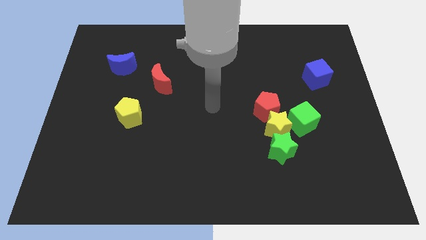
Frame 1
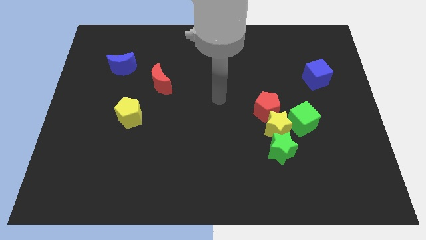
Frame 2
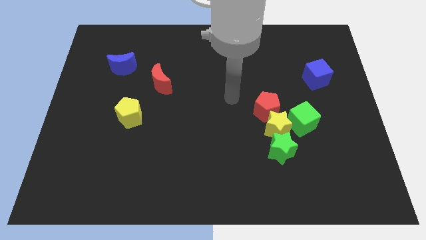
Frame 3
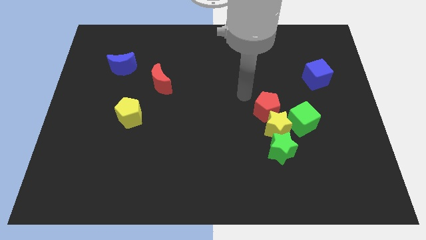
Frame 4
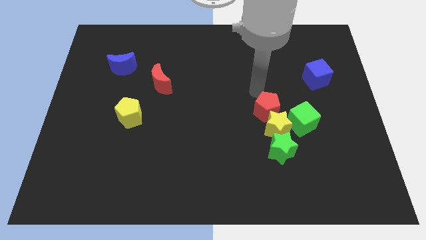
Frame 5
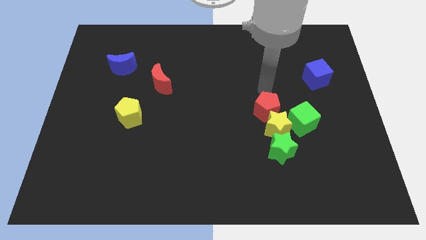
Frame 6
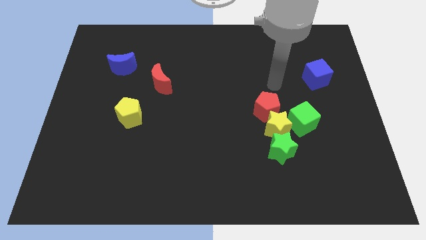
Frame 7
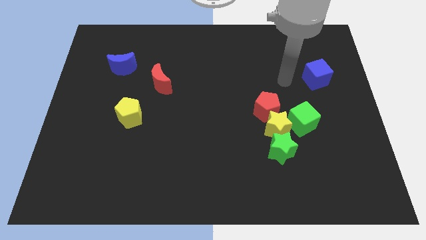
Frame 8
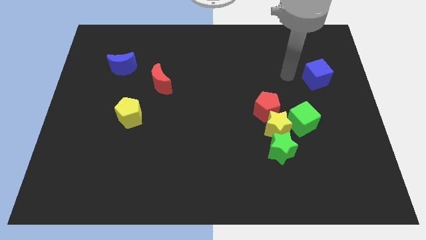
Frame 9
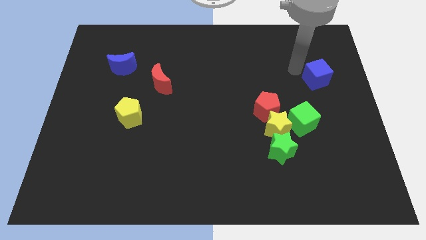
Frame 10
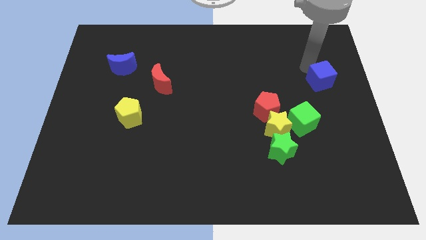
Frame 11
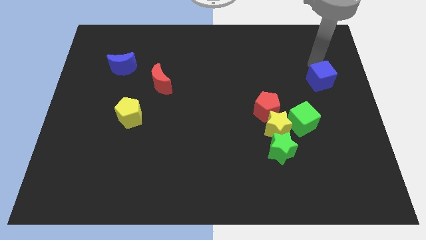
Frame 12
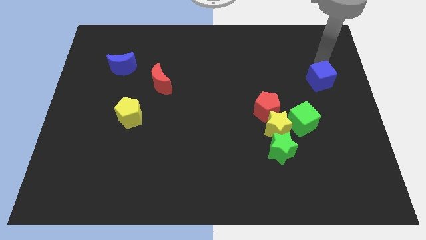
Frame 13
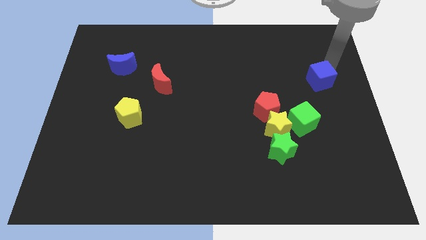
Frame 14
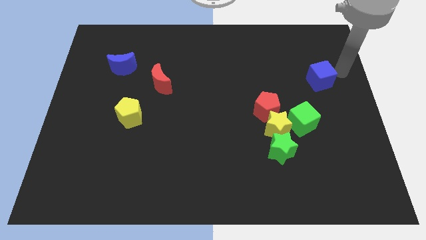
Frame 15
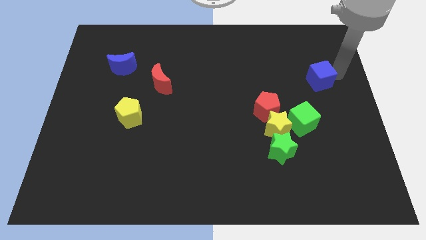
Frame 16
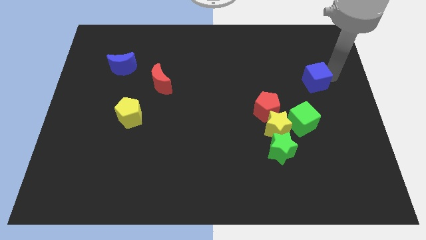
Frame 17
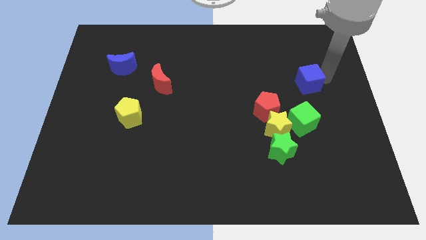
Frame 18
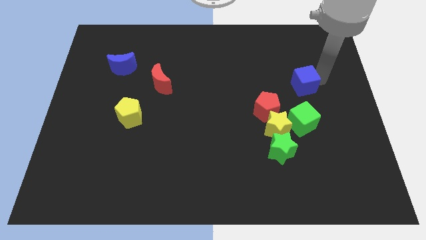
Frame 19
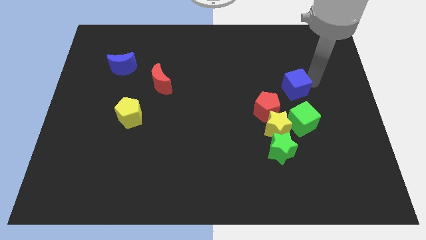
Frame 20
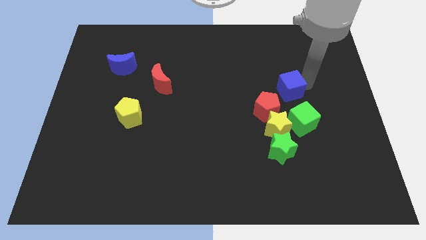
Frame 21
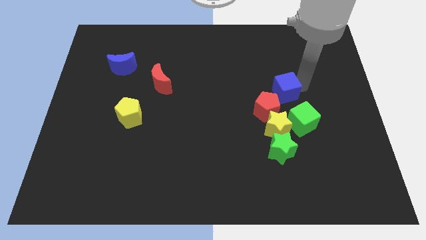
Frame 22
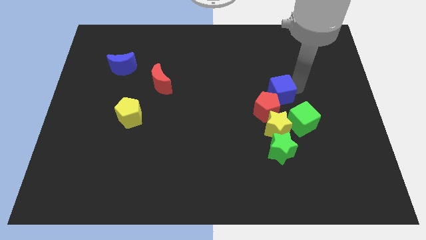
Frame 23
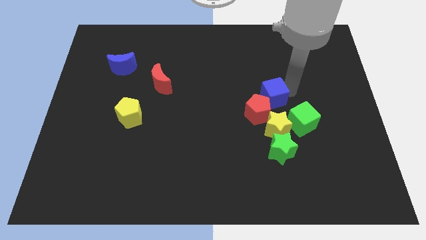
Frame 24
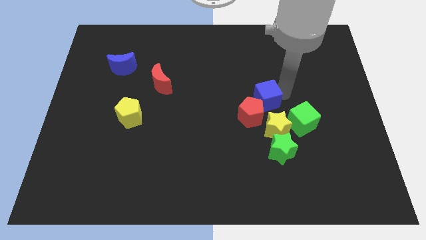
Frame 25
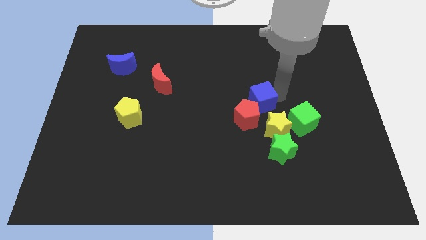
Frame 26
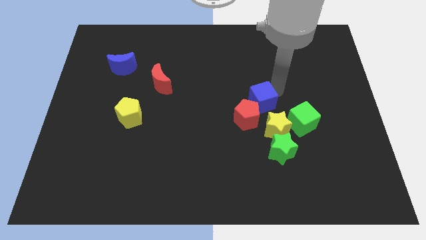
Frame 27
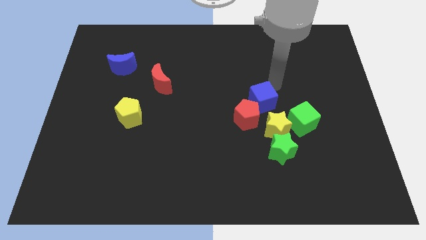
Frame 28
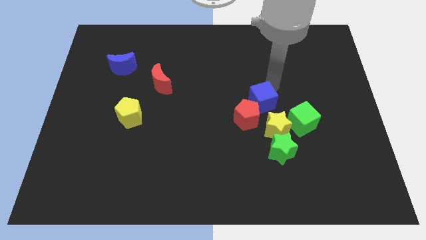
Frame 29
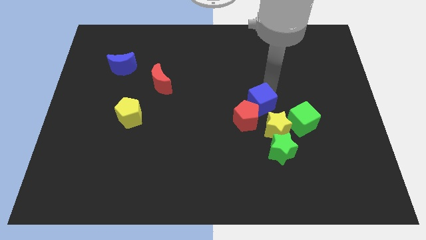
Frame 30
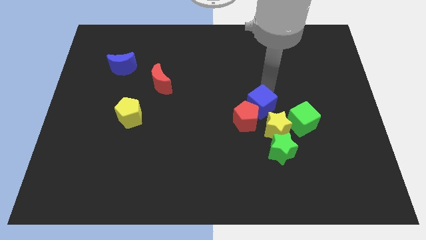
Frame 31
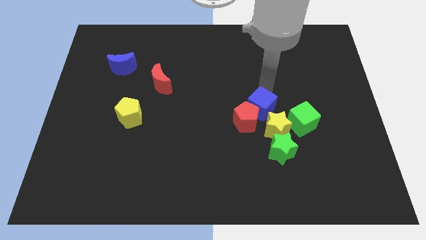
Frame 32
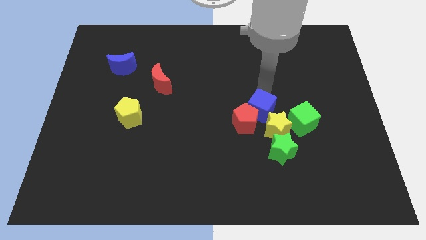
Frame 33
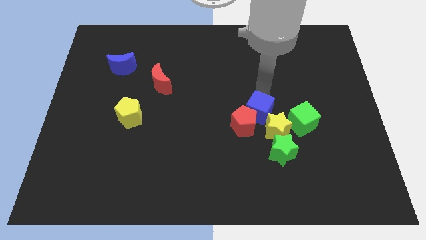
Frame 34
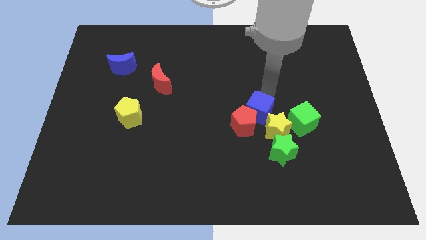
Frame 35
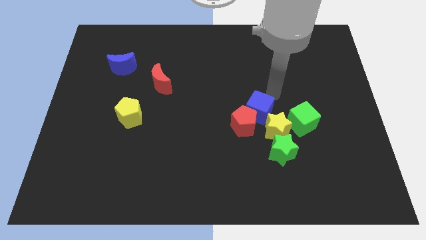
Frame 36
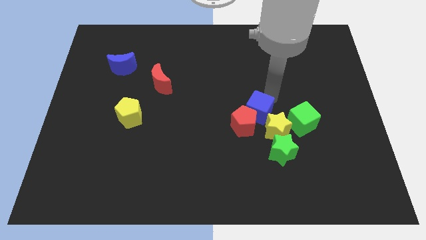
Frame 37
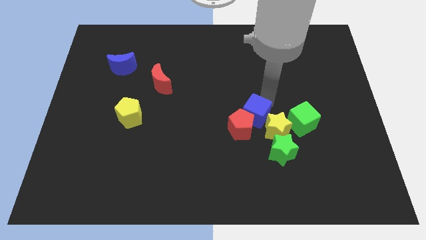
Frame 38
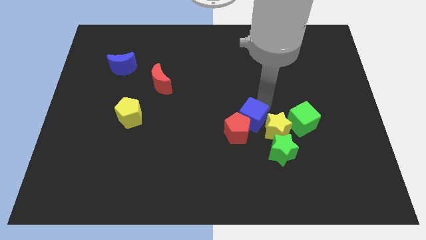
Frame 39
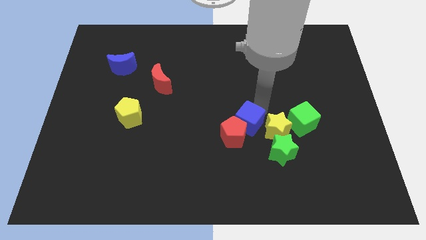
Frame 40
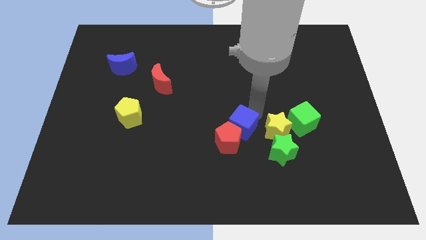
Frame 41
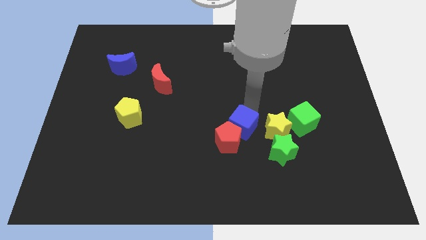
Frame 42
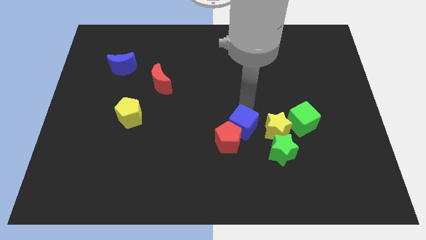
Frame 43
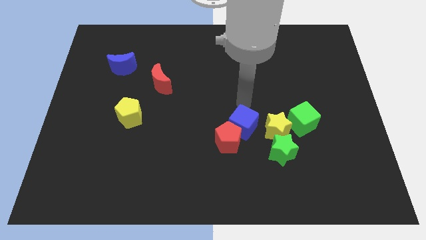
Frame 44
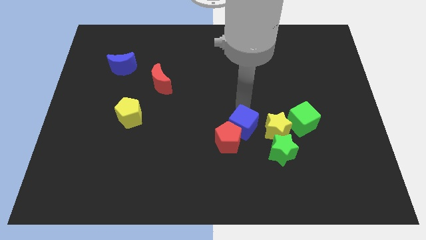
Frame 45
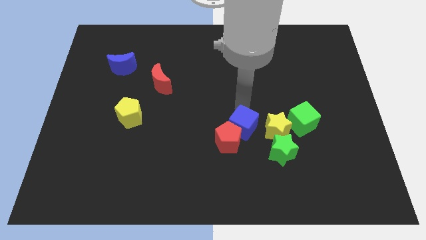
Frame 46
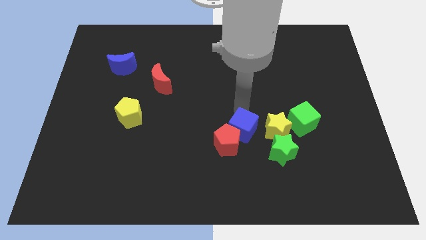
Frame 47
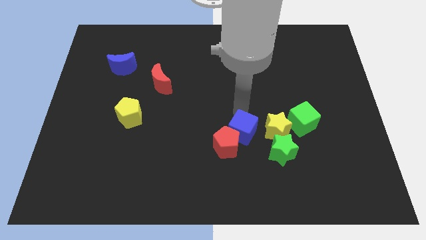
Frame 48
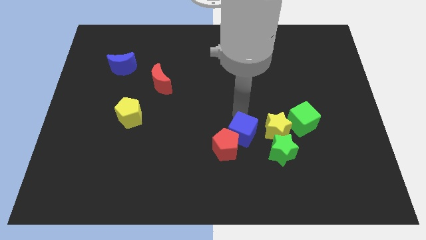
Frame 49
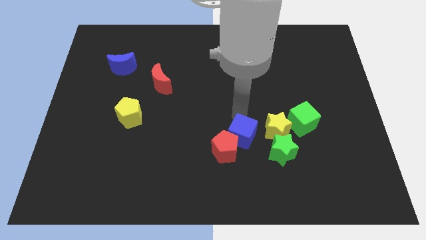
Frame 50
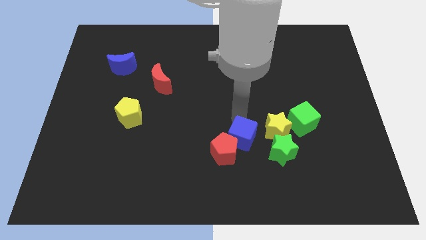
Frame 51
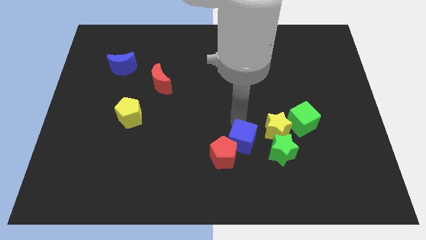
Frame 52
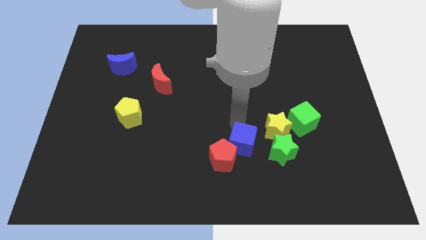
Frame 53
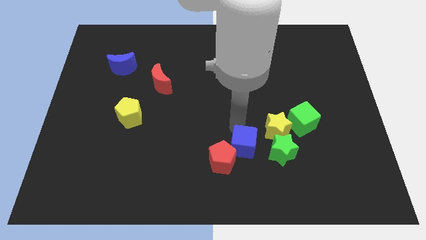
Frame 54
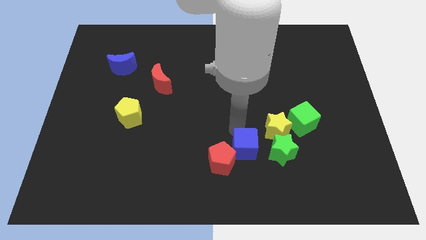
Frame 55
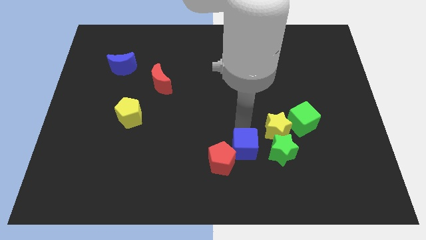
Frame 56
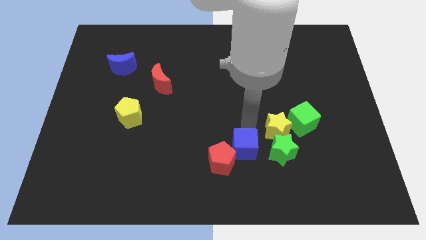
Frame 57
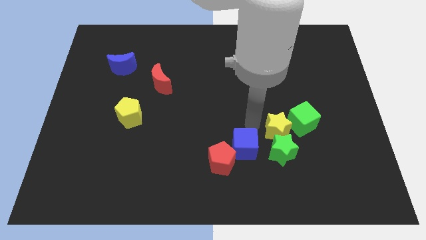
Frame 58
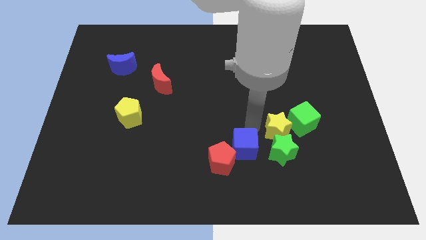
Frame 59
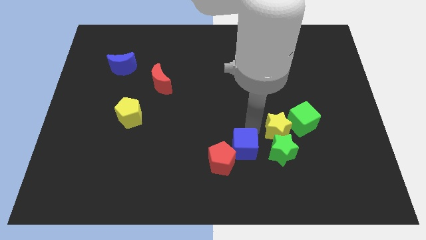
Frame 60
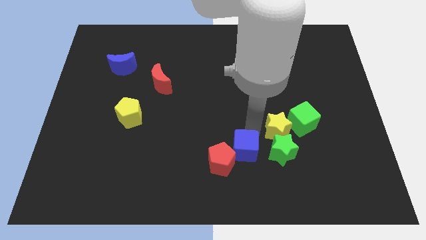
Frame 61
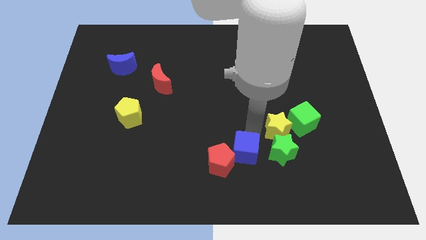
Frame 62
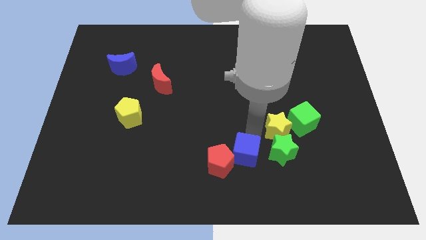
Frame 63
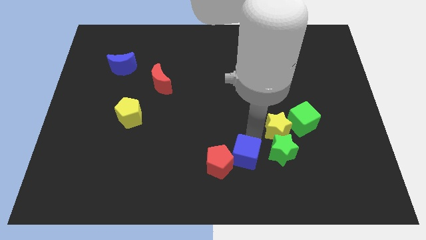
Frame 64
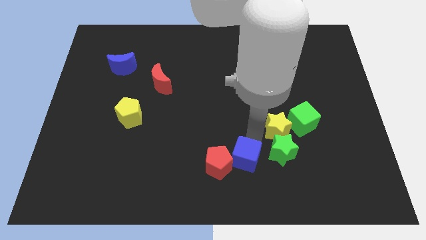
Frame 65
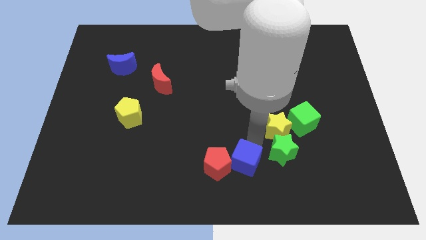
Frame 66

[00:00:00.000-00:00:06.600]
put the blue cube to the bottom side
